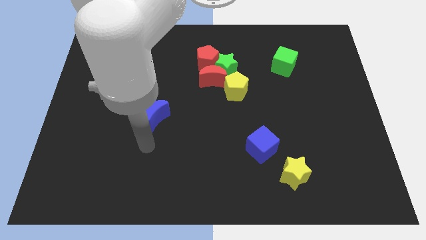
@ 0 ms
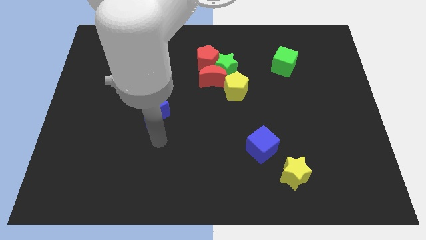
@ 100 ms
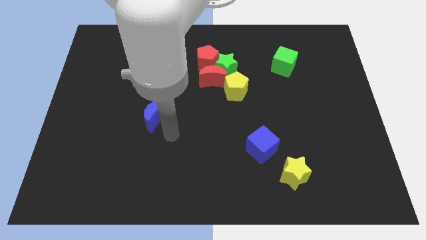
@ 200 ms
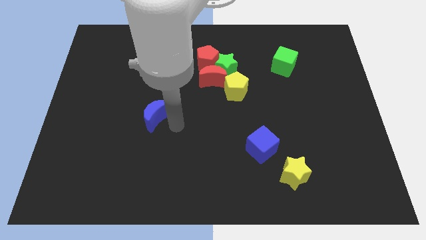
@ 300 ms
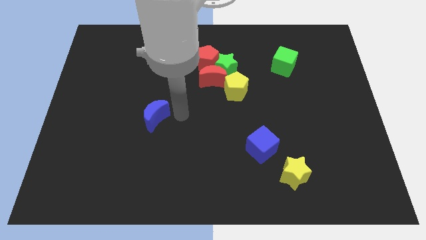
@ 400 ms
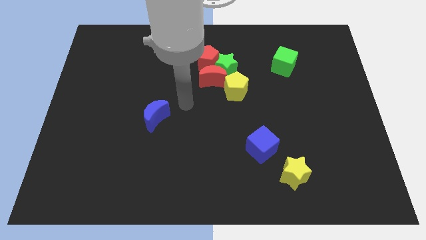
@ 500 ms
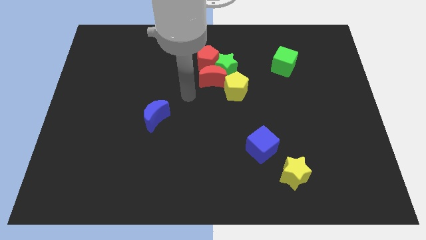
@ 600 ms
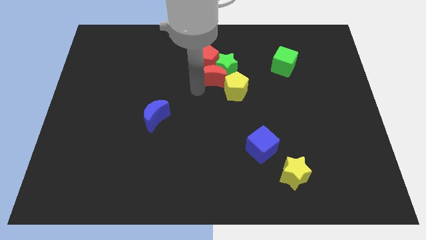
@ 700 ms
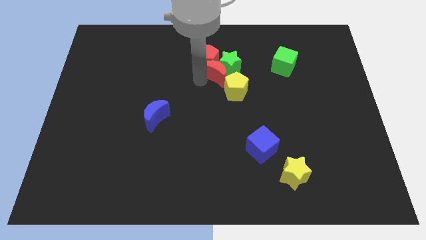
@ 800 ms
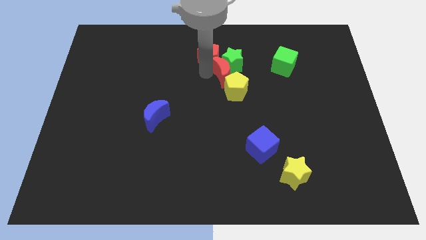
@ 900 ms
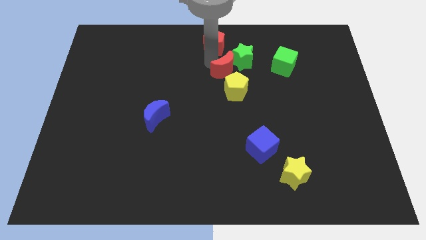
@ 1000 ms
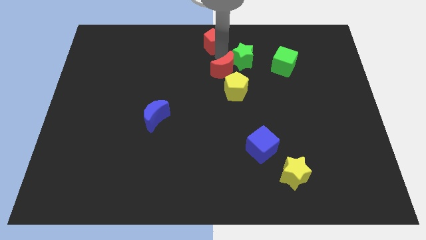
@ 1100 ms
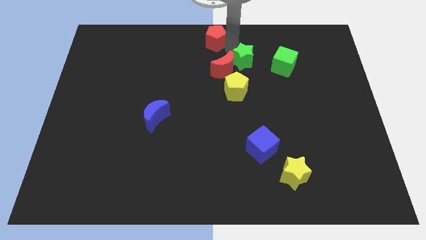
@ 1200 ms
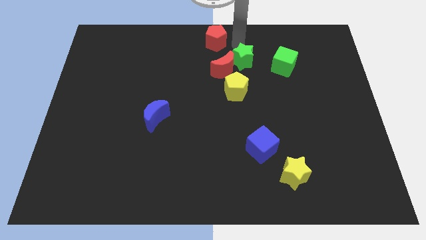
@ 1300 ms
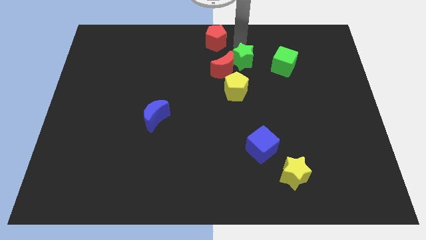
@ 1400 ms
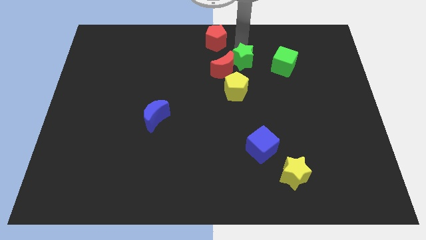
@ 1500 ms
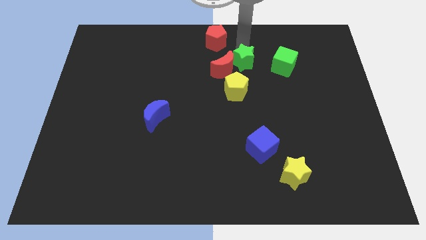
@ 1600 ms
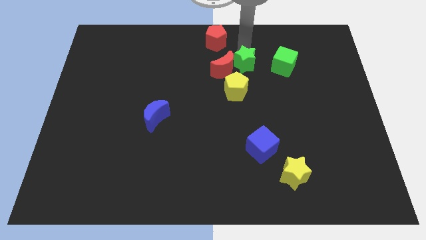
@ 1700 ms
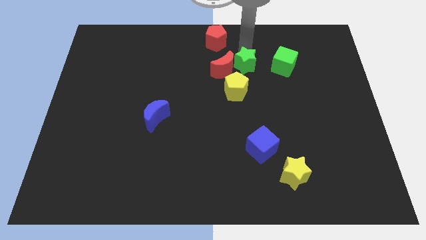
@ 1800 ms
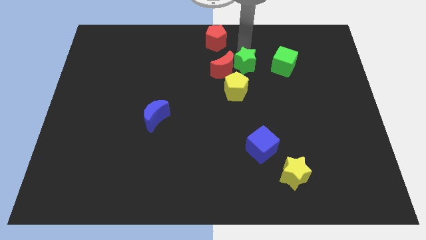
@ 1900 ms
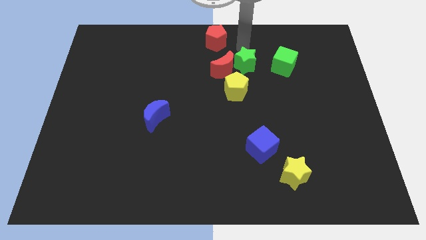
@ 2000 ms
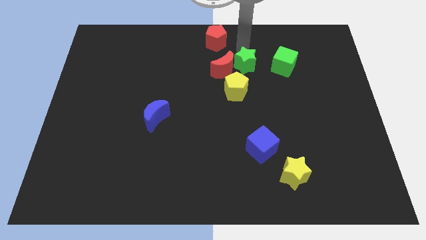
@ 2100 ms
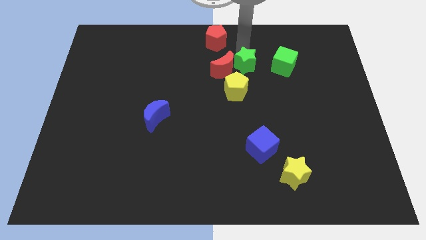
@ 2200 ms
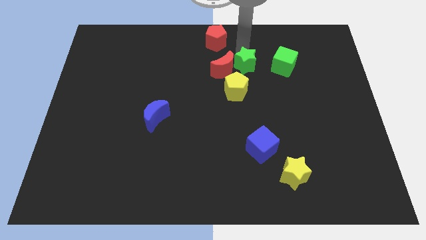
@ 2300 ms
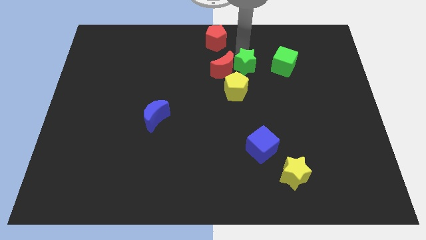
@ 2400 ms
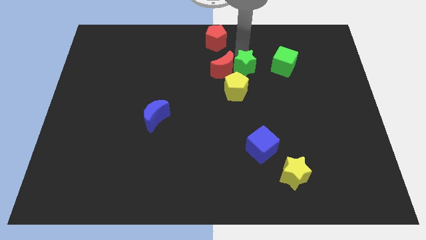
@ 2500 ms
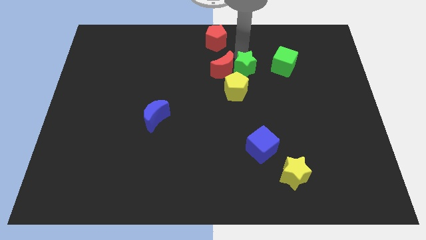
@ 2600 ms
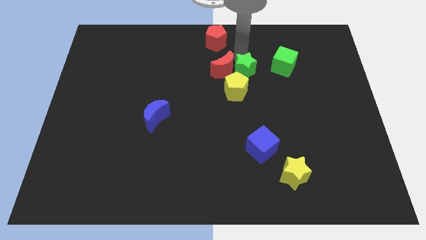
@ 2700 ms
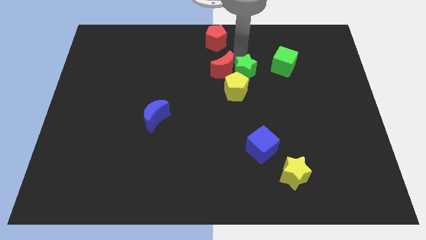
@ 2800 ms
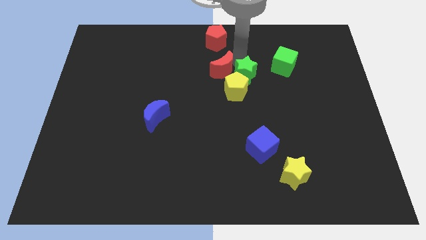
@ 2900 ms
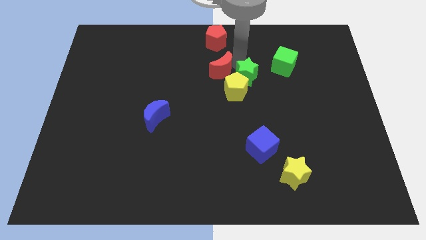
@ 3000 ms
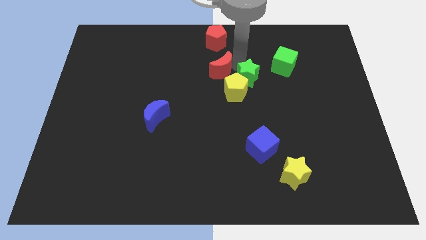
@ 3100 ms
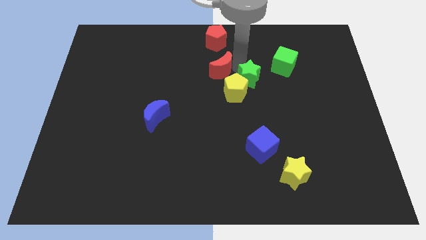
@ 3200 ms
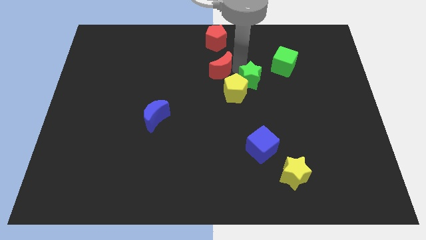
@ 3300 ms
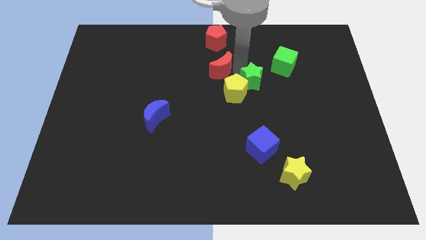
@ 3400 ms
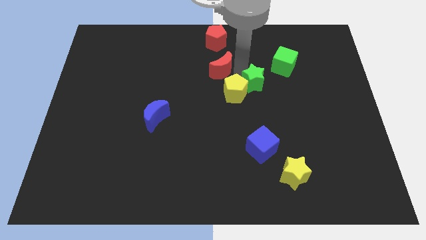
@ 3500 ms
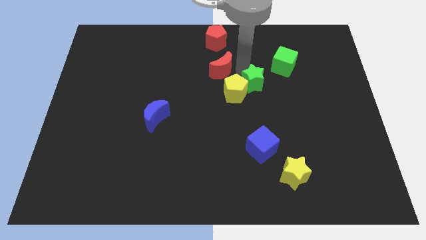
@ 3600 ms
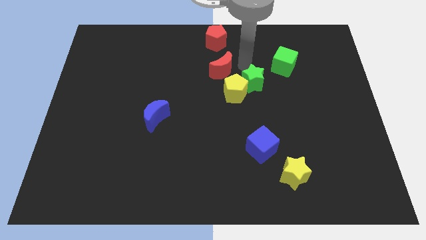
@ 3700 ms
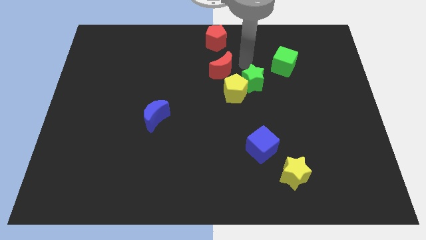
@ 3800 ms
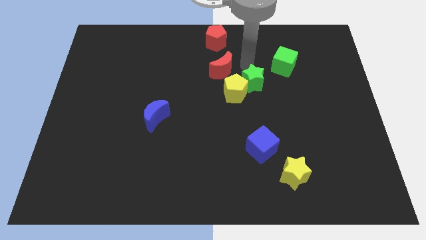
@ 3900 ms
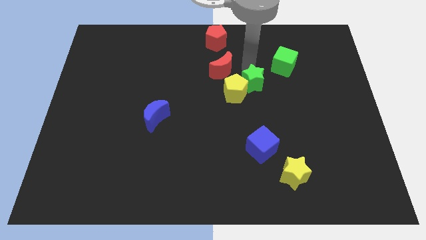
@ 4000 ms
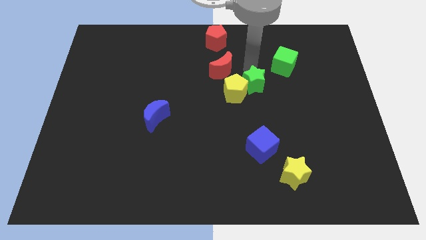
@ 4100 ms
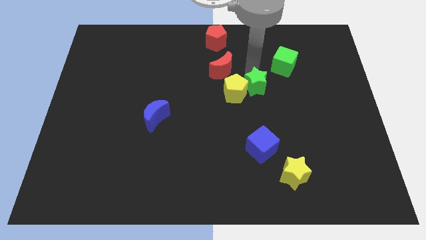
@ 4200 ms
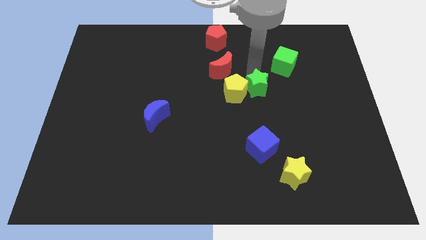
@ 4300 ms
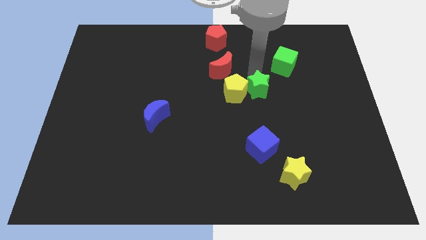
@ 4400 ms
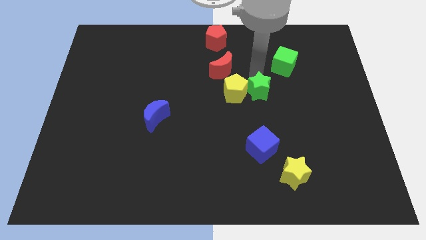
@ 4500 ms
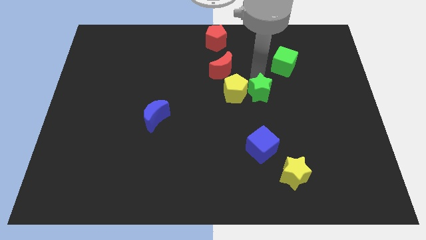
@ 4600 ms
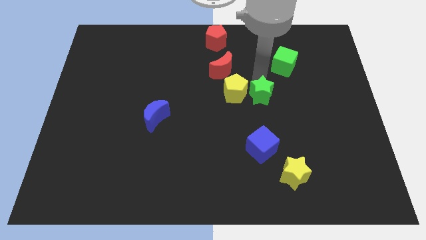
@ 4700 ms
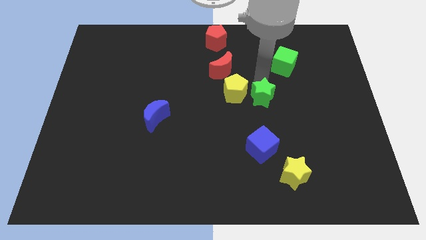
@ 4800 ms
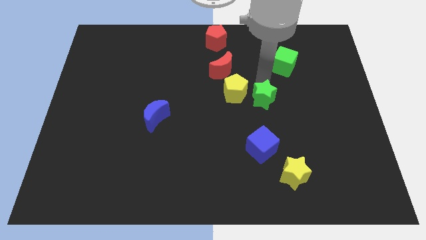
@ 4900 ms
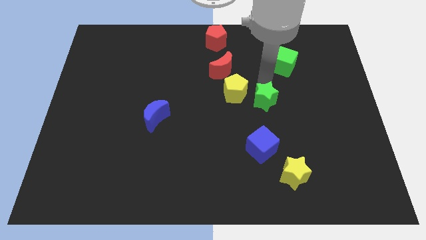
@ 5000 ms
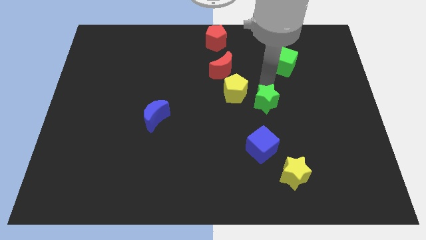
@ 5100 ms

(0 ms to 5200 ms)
slightly slide the green star down

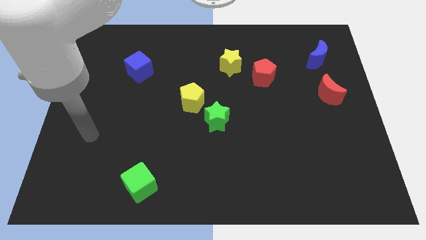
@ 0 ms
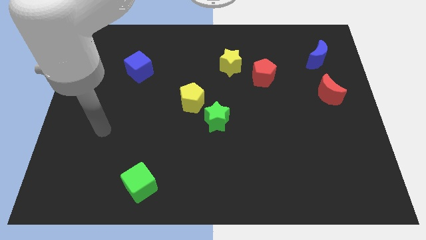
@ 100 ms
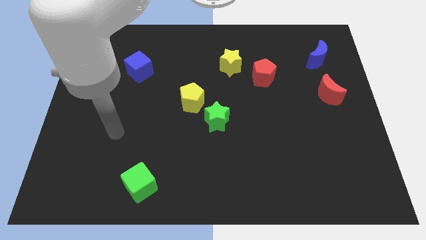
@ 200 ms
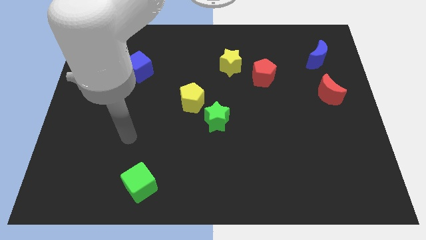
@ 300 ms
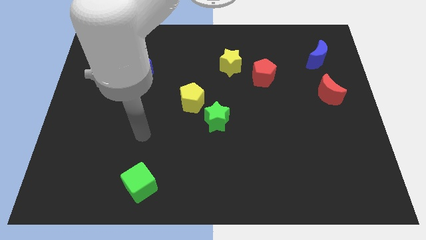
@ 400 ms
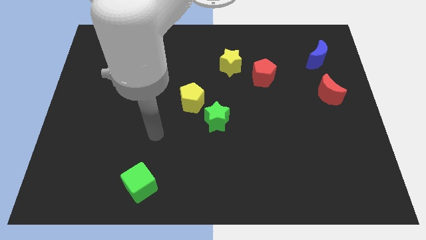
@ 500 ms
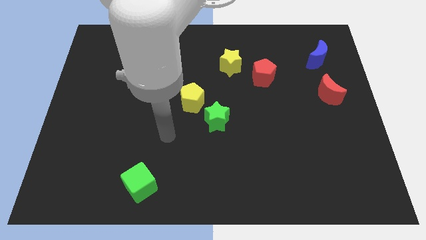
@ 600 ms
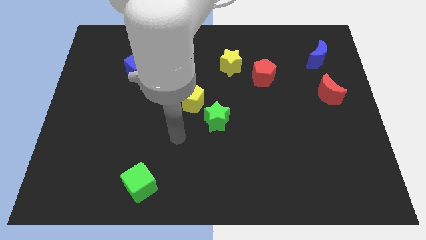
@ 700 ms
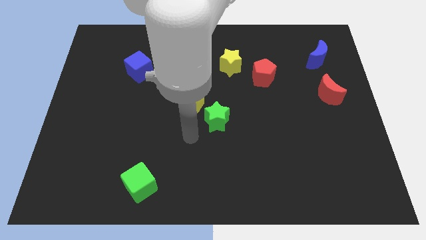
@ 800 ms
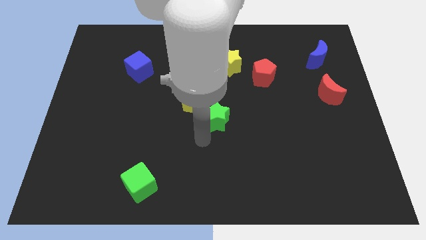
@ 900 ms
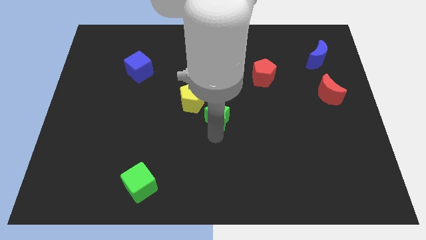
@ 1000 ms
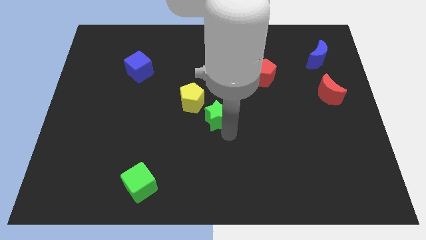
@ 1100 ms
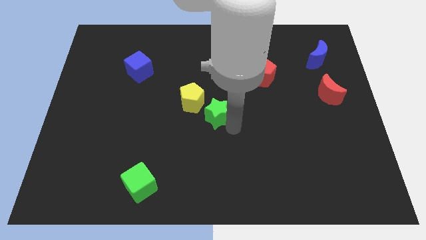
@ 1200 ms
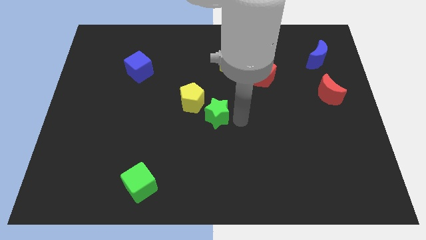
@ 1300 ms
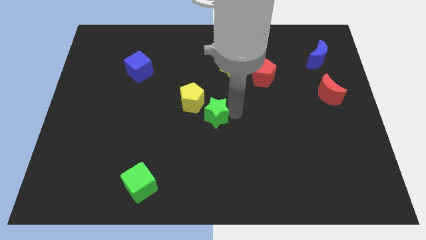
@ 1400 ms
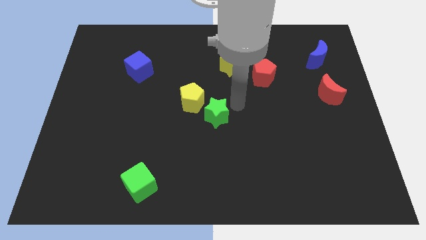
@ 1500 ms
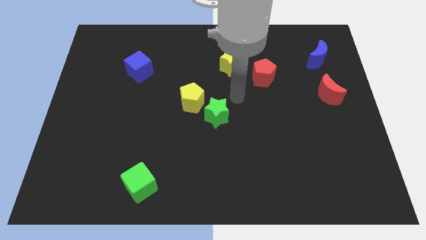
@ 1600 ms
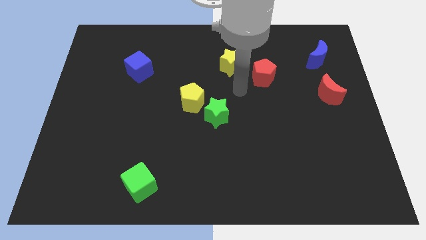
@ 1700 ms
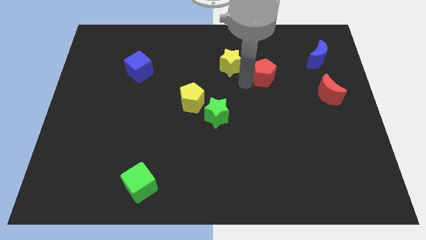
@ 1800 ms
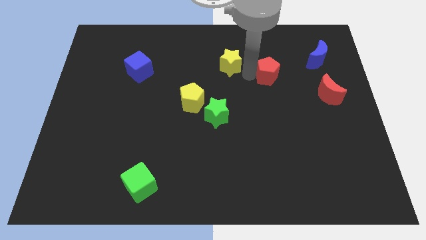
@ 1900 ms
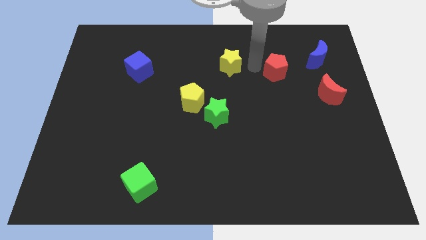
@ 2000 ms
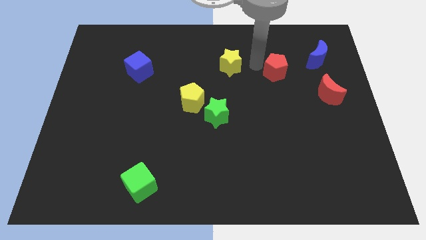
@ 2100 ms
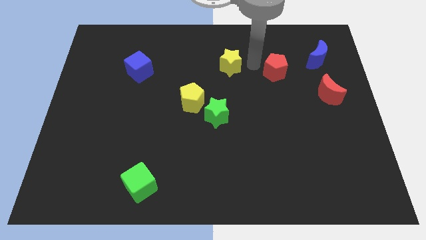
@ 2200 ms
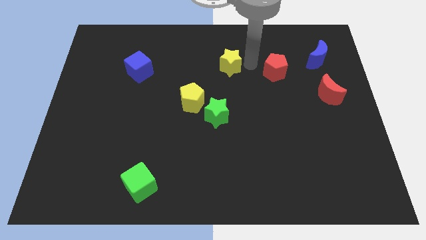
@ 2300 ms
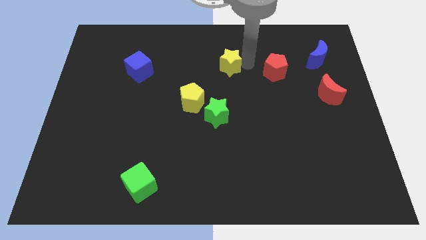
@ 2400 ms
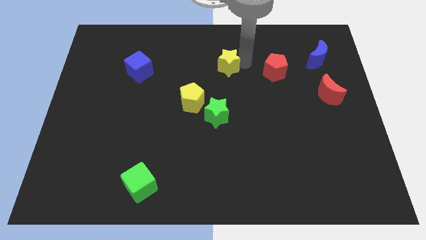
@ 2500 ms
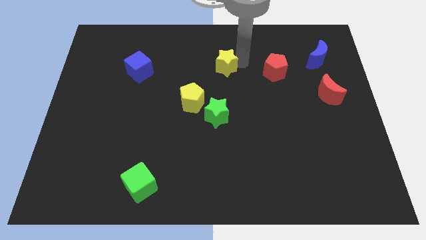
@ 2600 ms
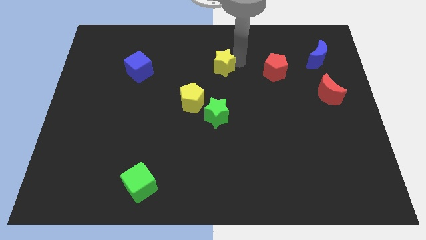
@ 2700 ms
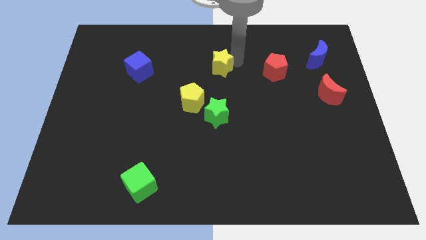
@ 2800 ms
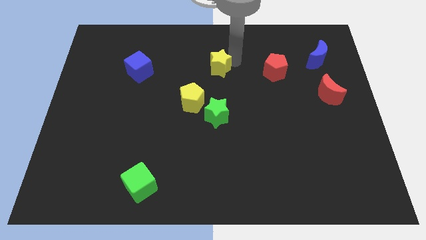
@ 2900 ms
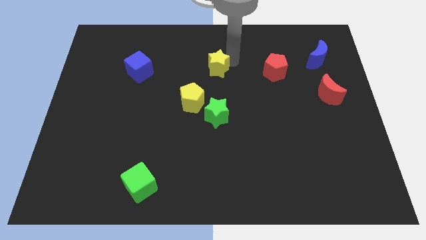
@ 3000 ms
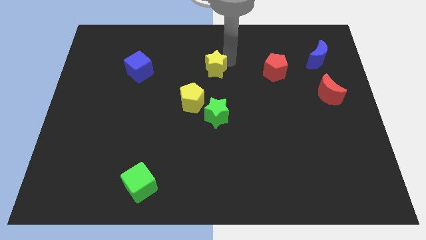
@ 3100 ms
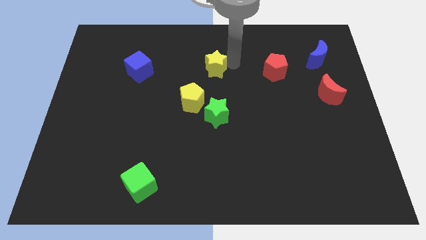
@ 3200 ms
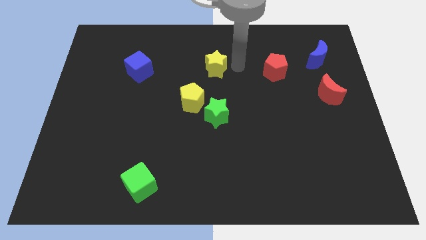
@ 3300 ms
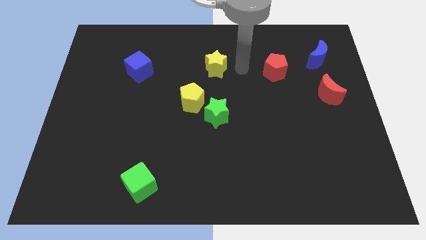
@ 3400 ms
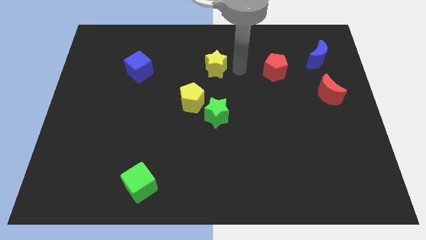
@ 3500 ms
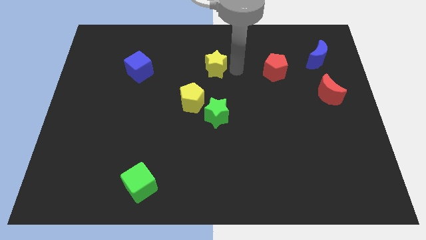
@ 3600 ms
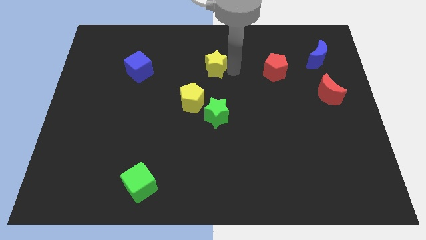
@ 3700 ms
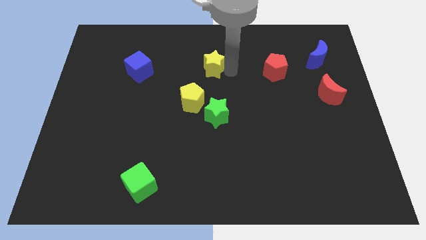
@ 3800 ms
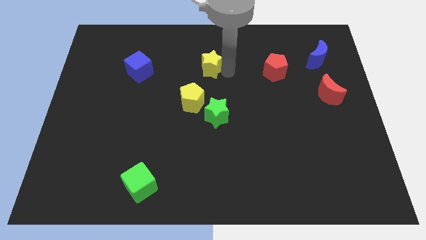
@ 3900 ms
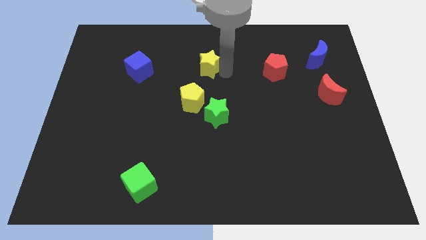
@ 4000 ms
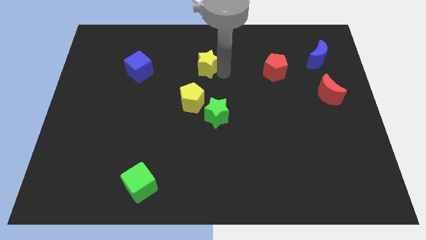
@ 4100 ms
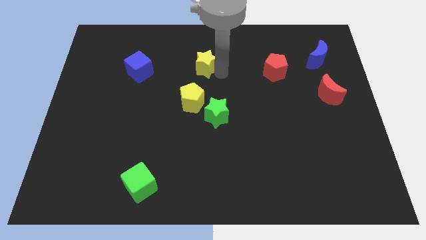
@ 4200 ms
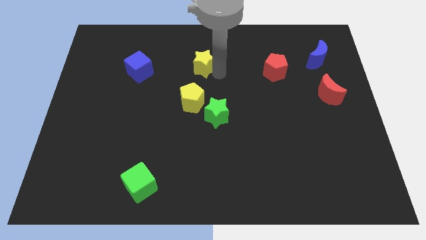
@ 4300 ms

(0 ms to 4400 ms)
push the yellow star to the left a little
